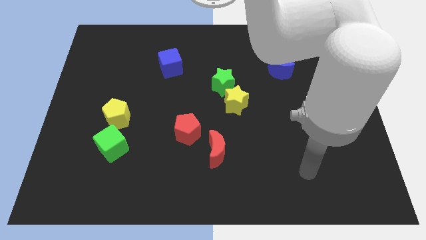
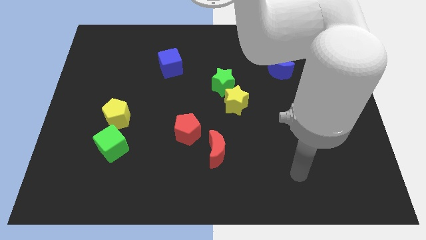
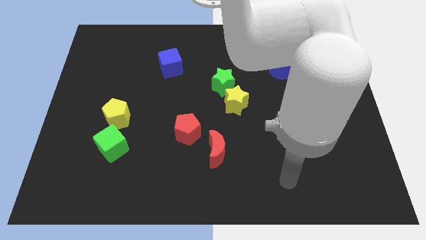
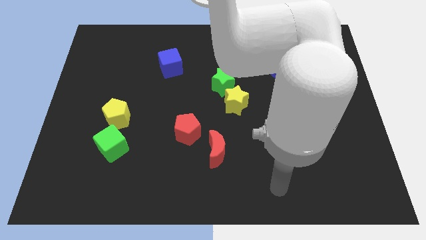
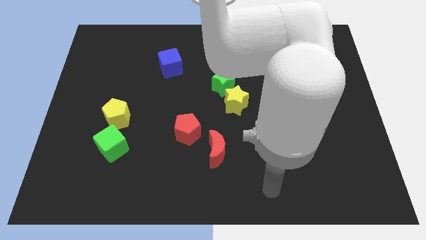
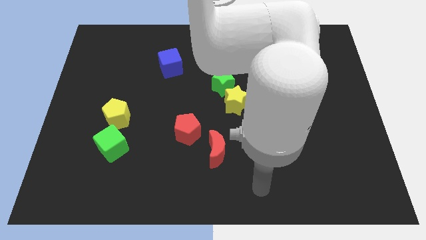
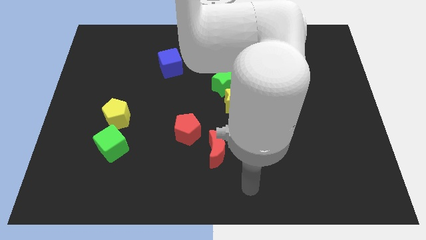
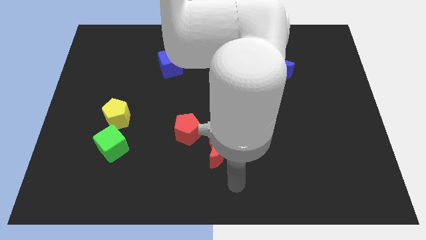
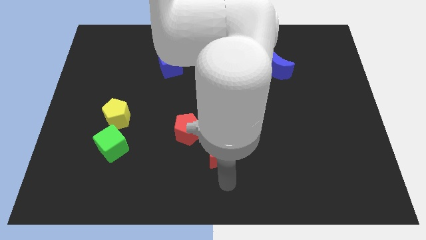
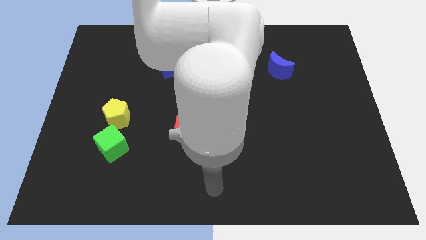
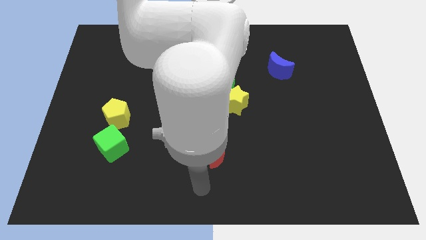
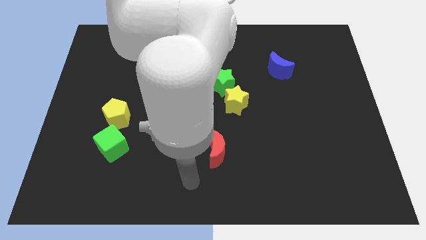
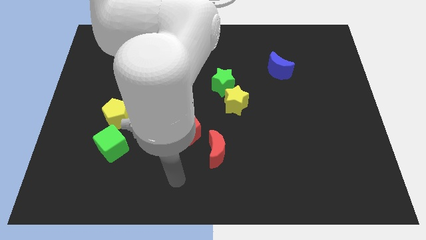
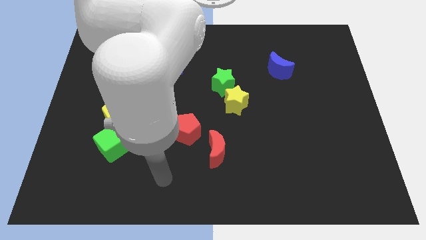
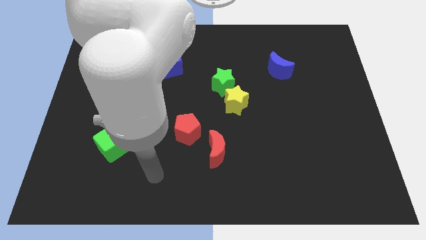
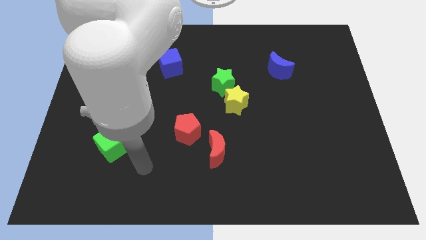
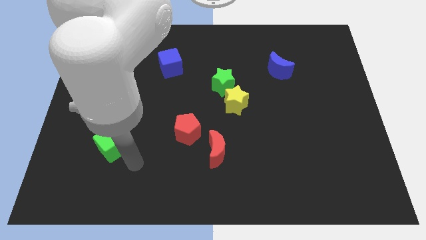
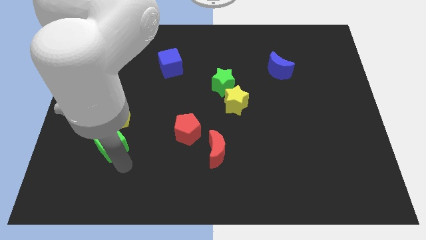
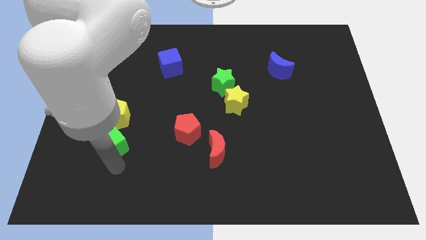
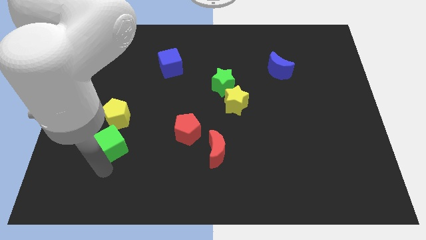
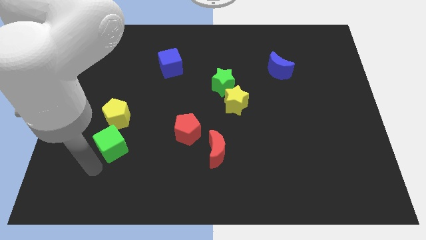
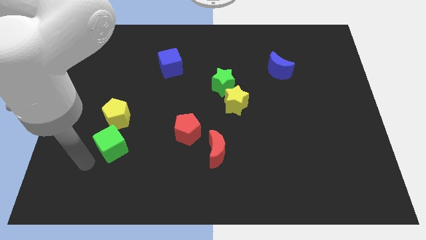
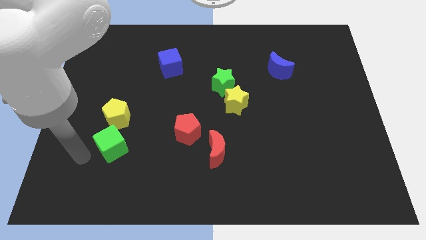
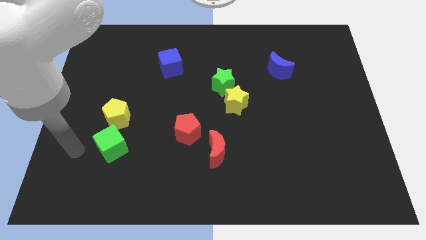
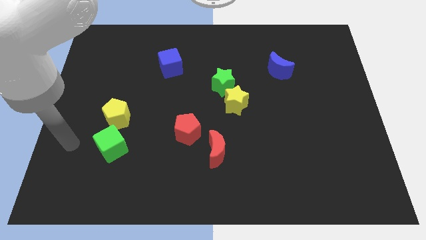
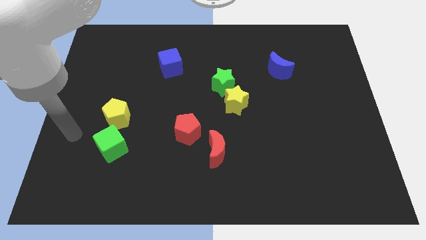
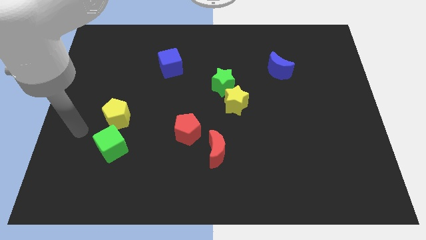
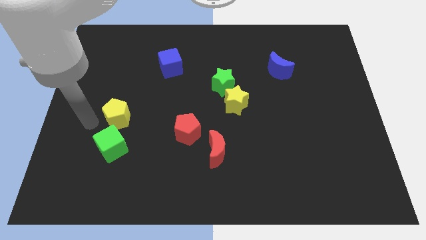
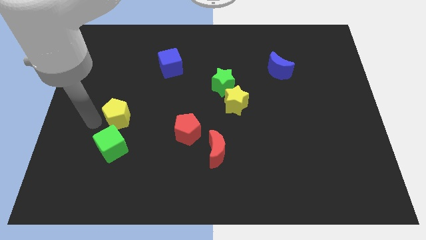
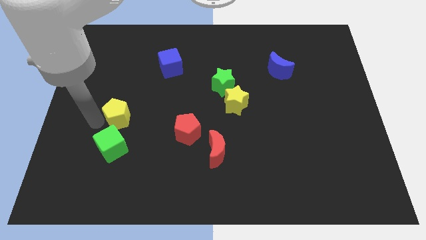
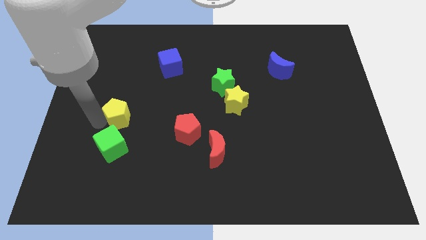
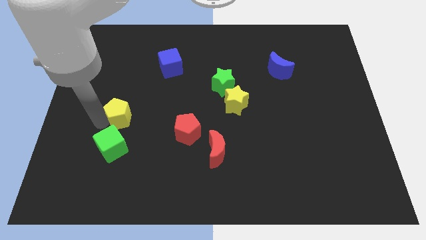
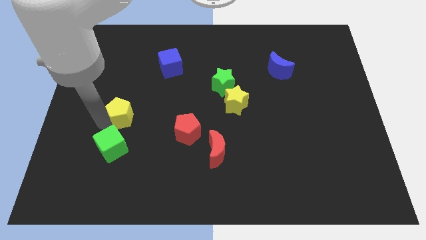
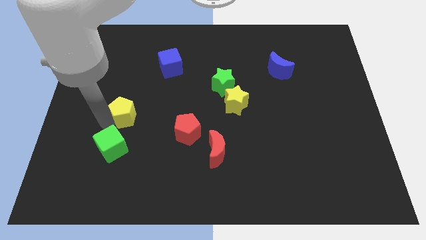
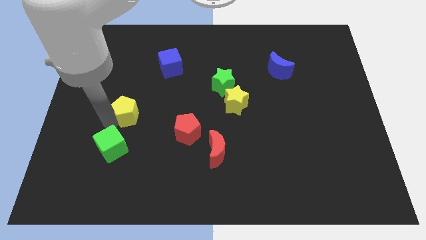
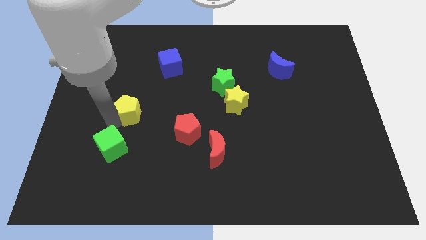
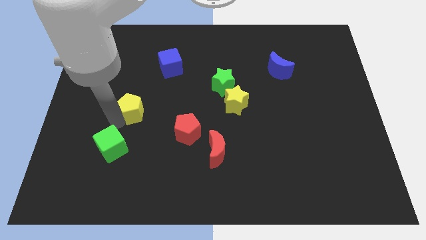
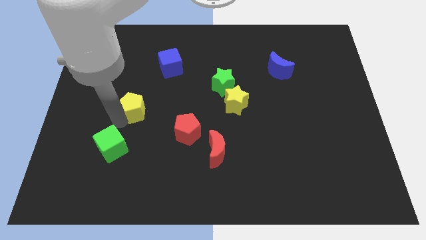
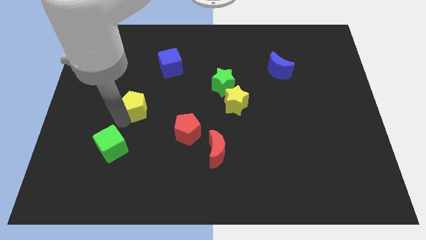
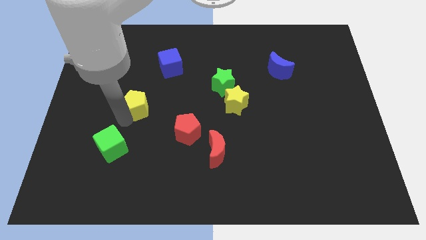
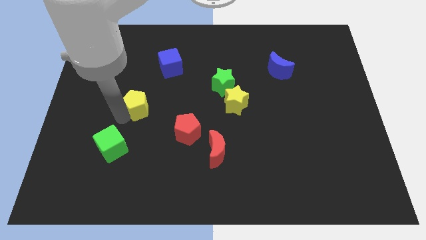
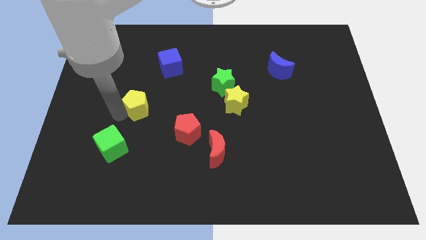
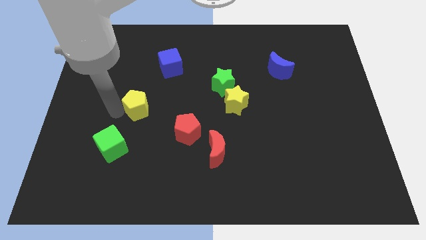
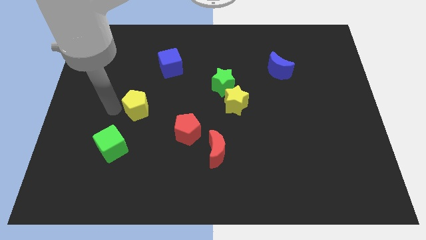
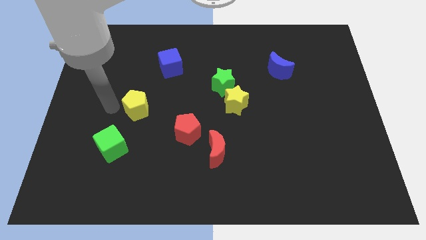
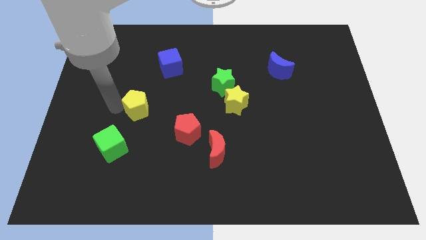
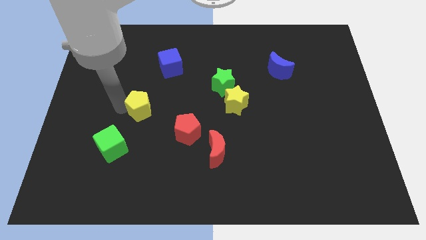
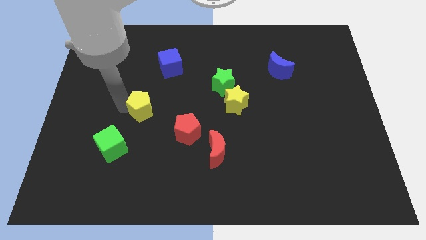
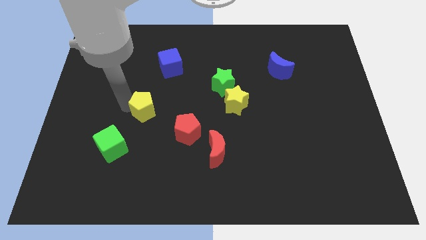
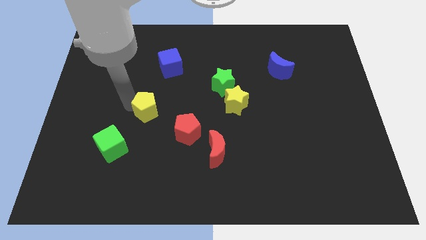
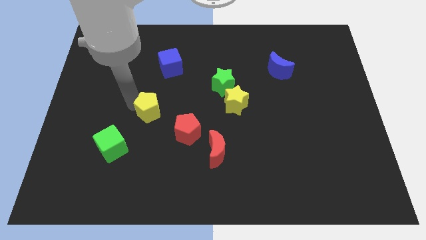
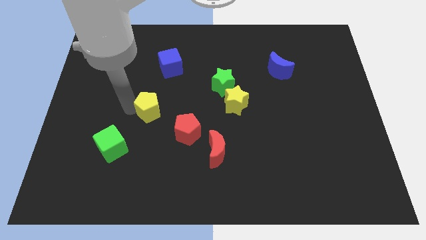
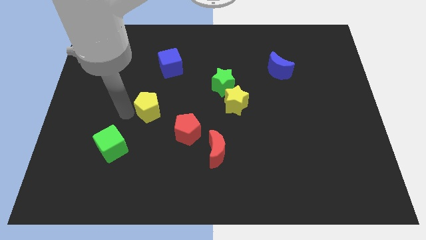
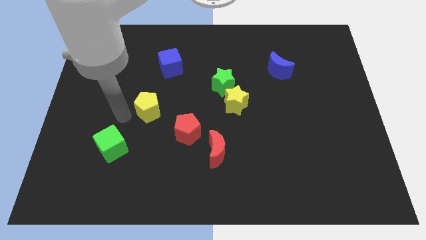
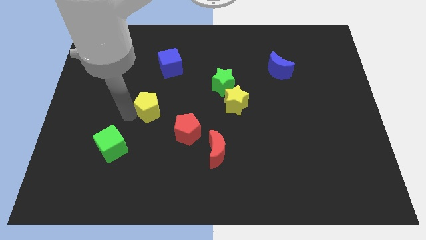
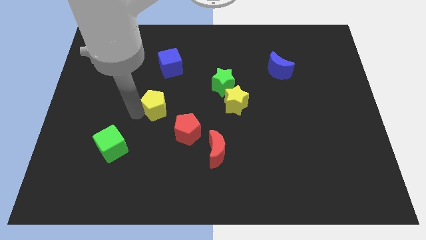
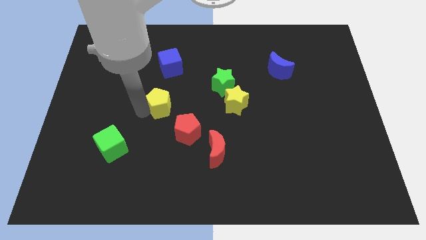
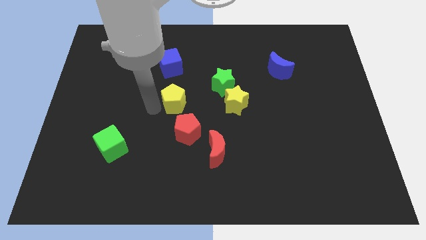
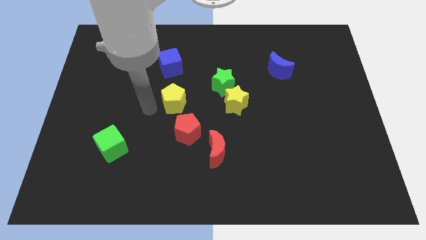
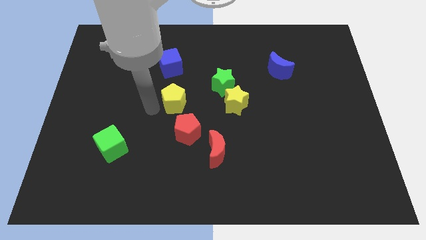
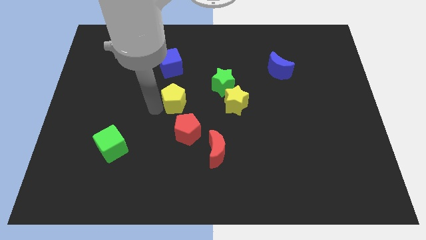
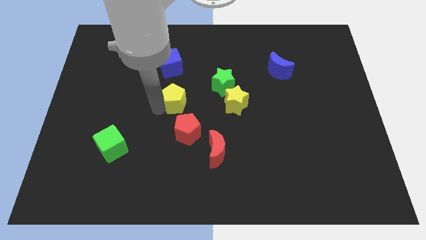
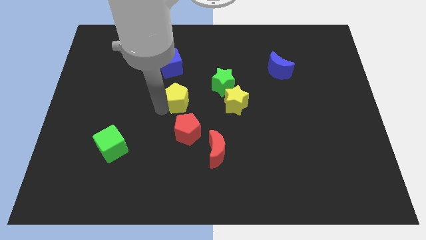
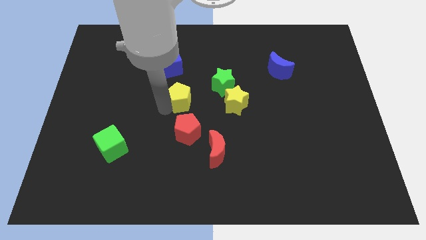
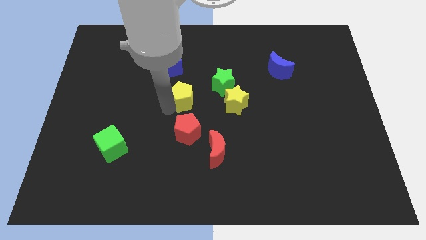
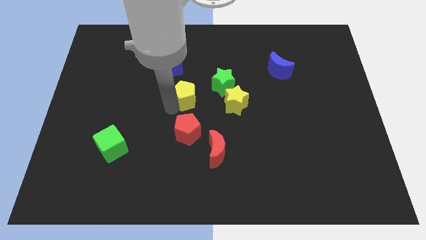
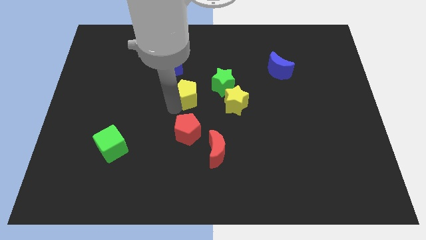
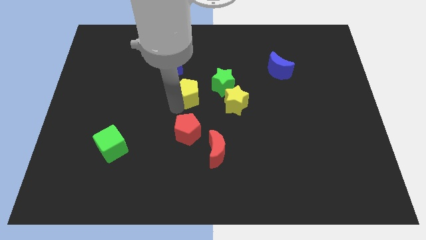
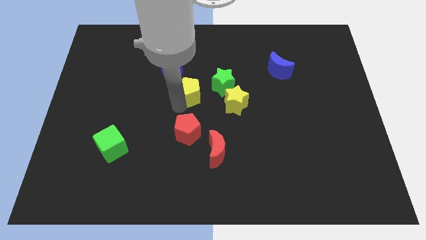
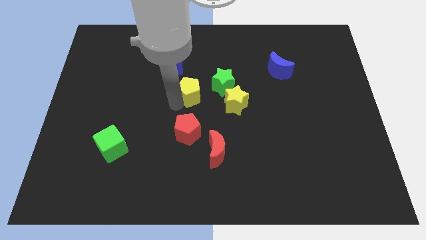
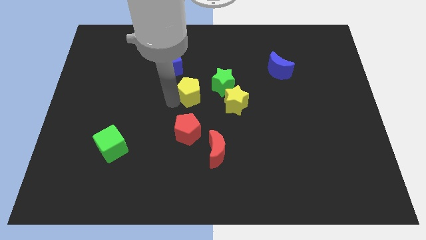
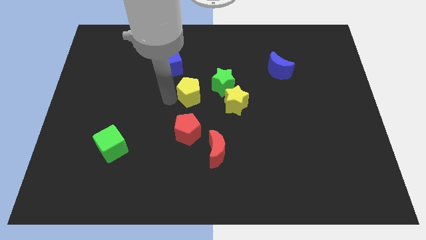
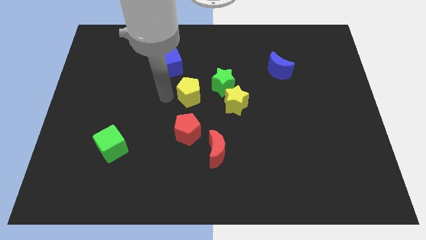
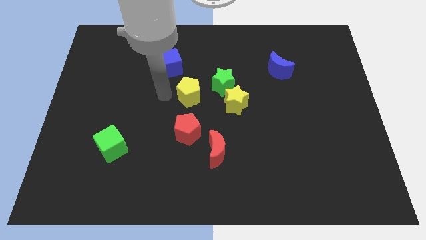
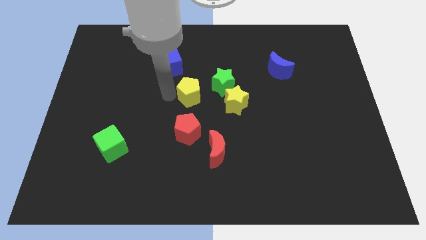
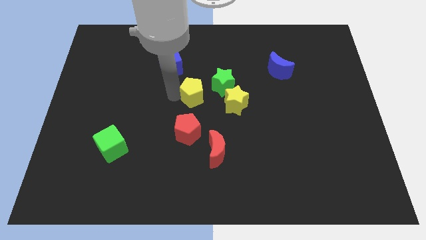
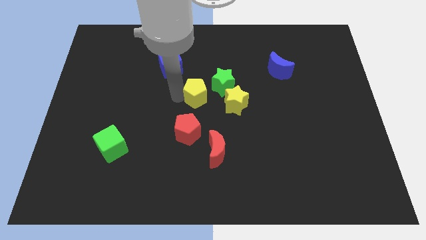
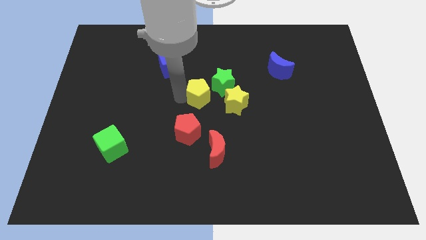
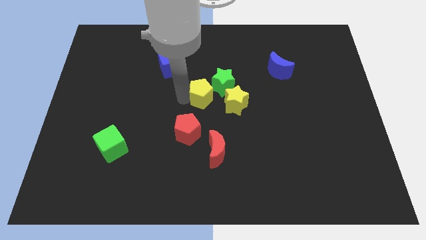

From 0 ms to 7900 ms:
put the yellow pentagon to the green star
